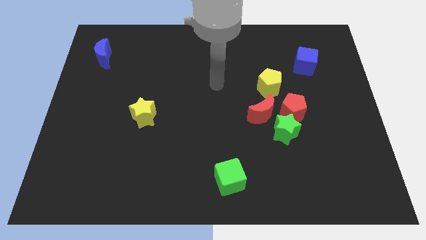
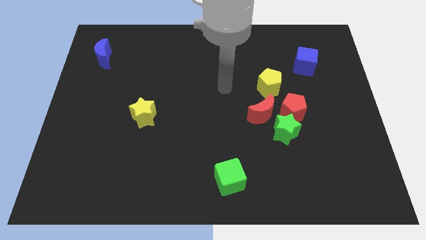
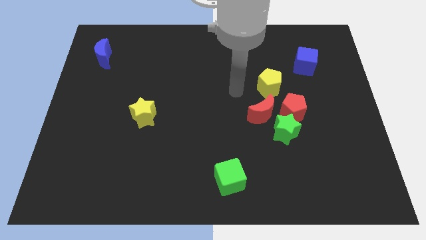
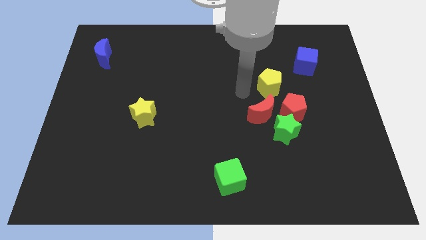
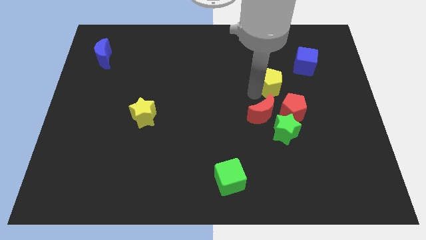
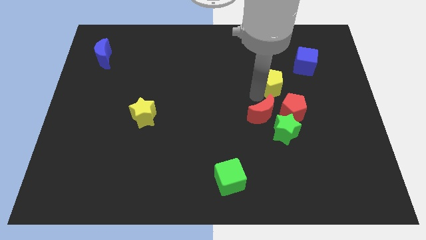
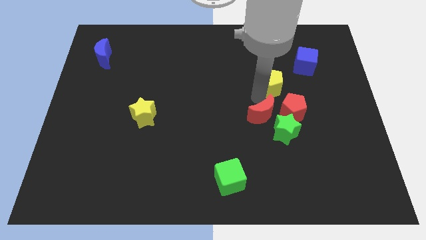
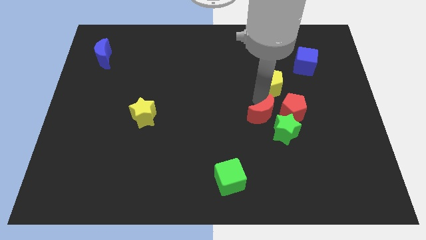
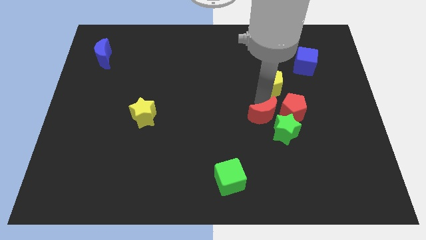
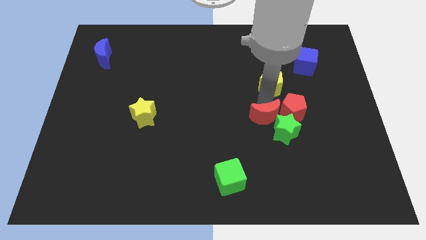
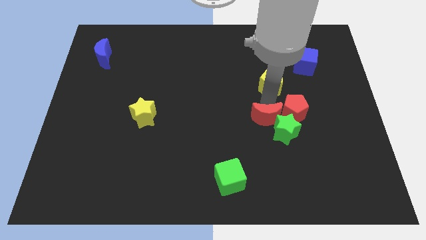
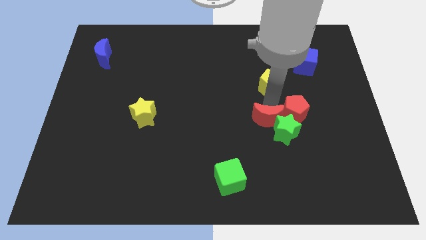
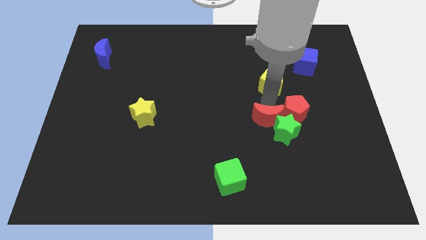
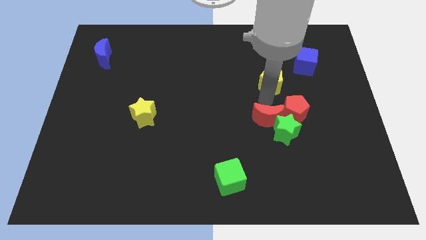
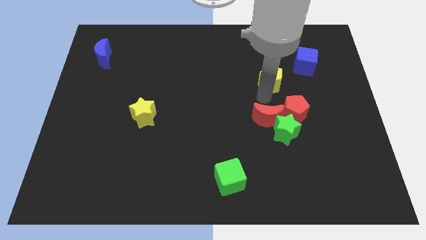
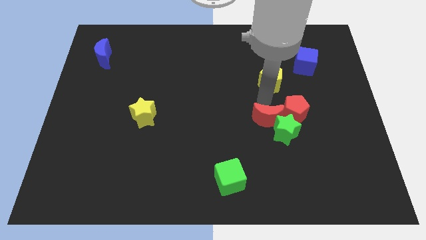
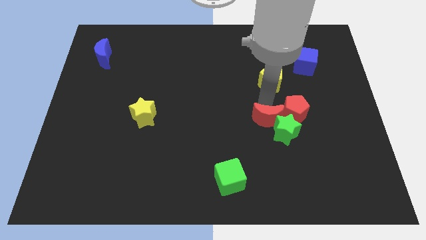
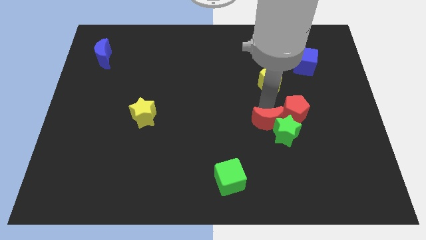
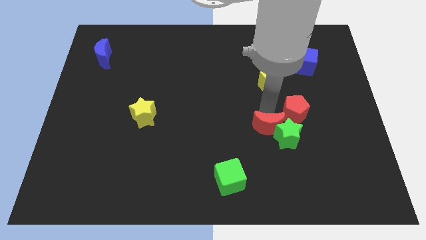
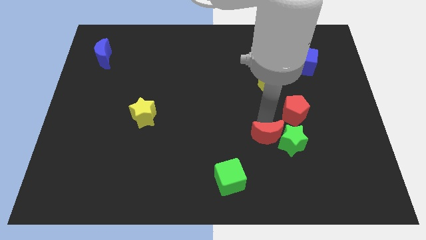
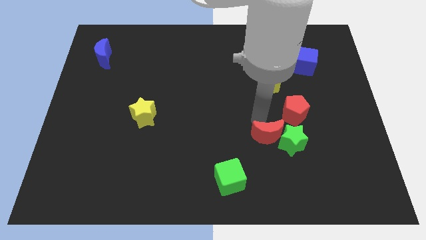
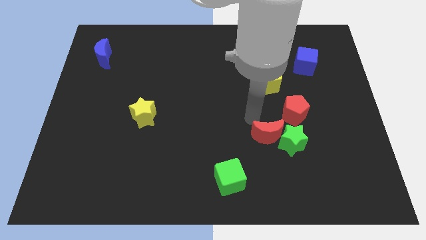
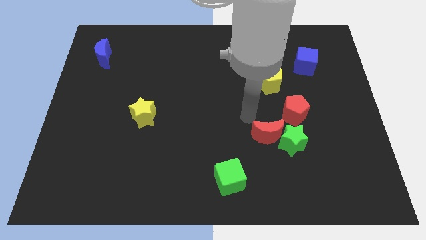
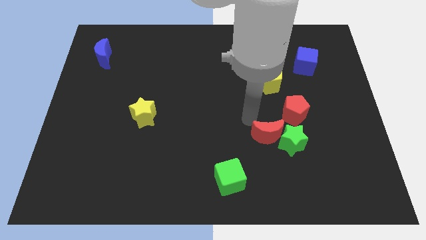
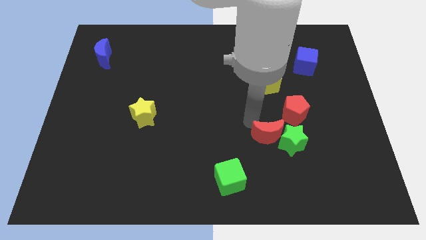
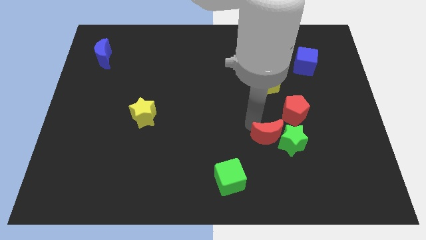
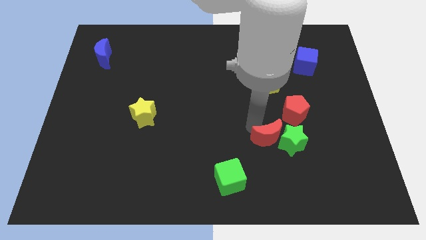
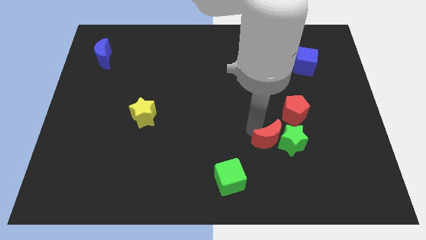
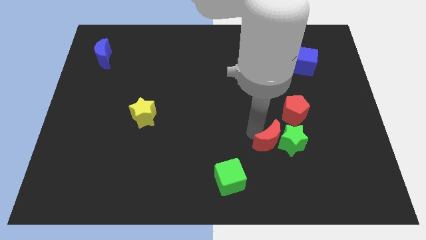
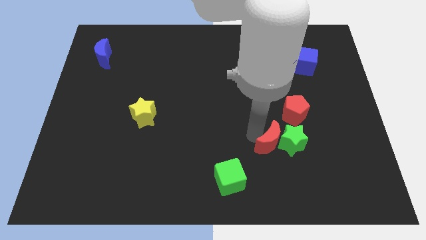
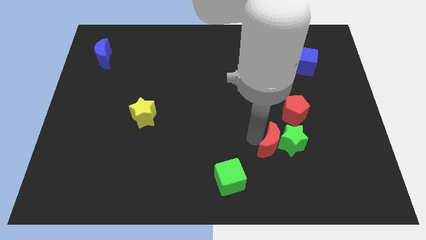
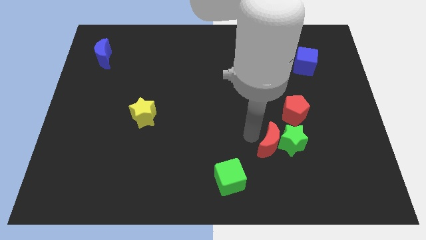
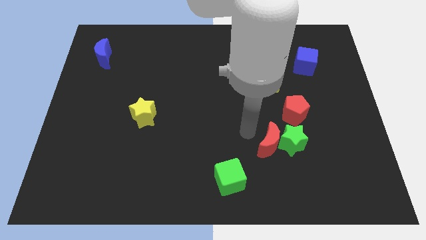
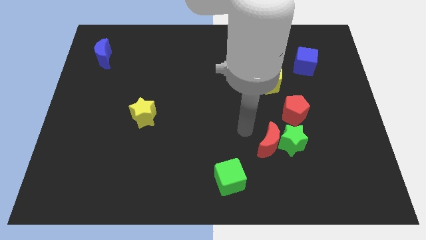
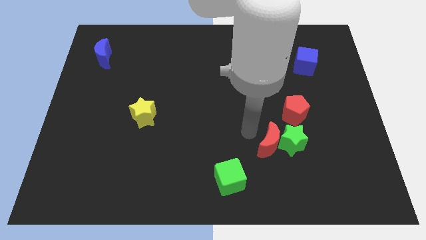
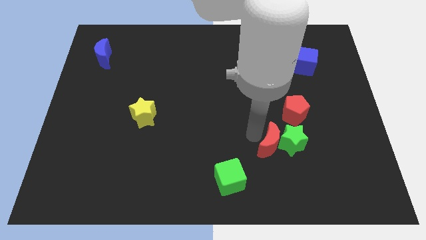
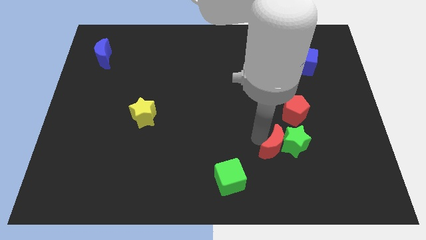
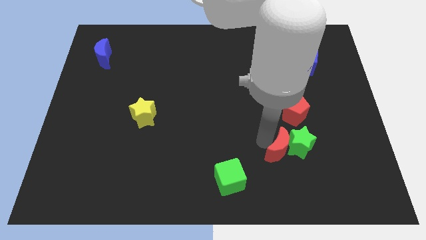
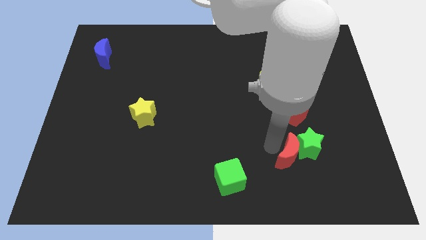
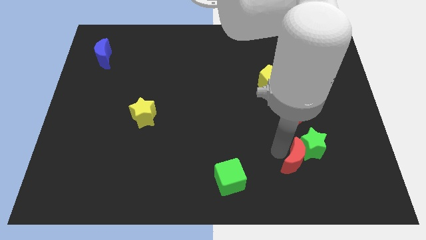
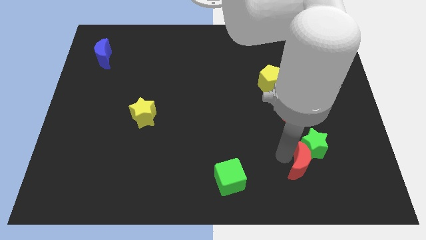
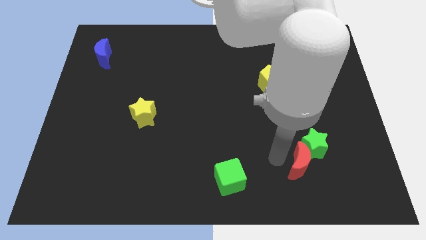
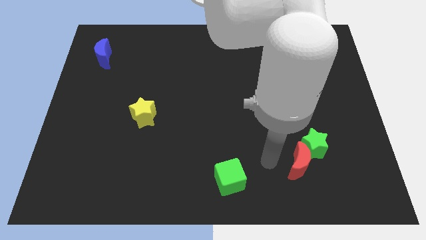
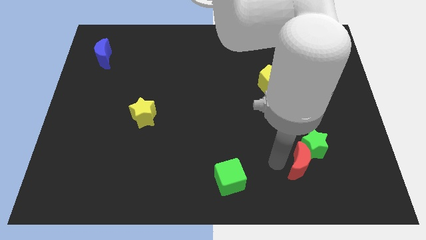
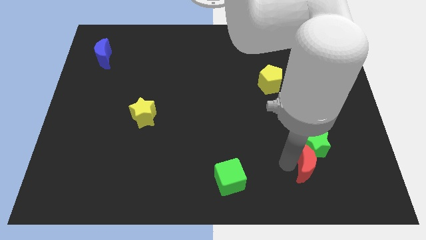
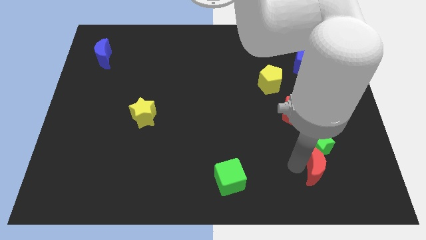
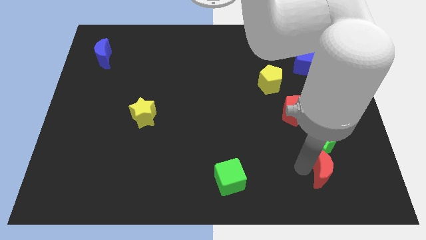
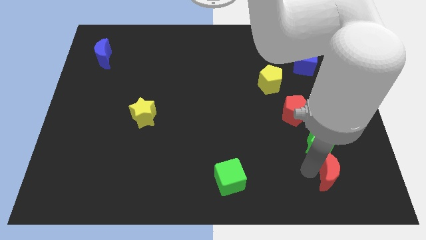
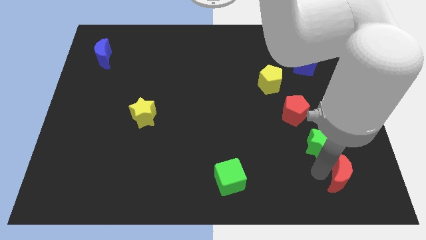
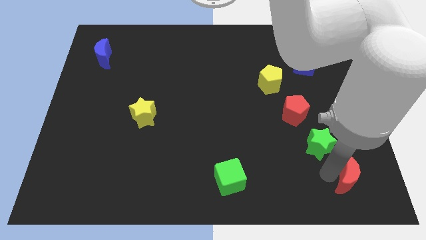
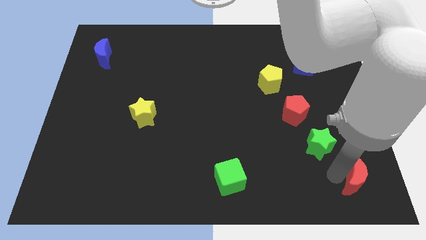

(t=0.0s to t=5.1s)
move the red moon to the bottom right of the board

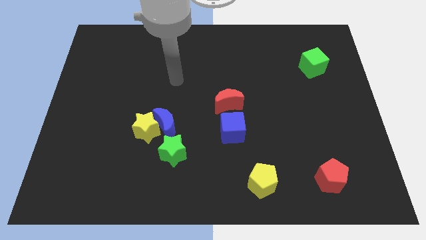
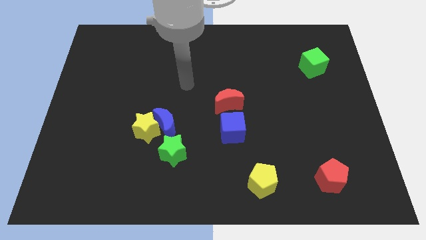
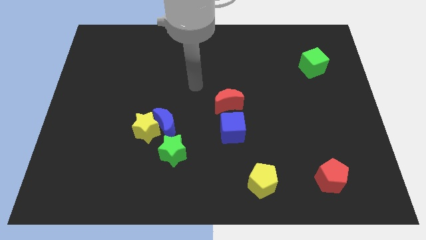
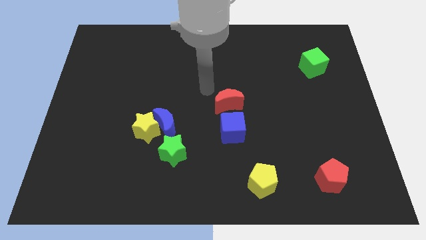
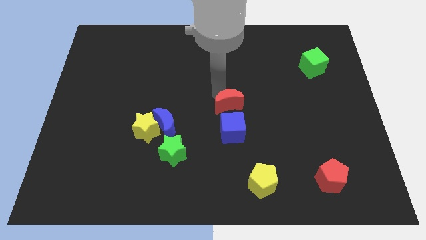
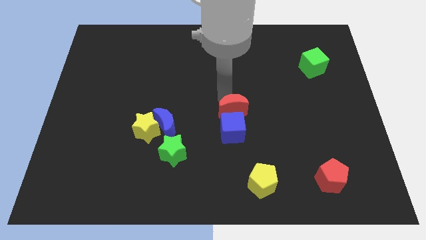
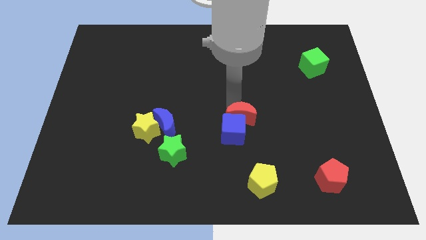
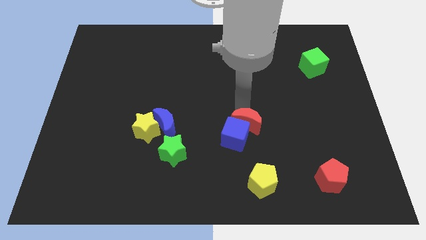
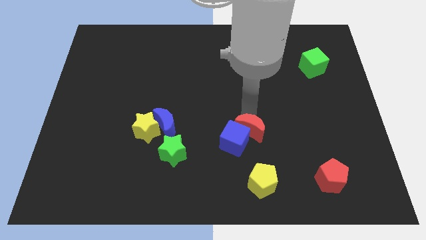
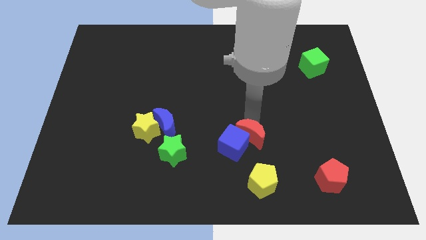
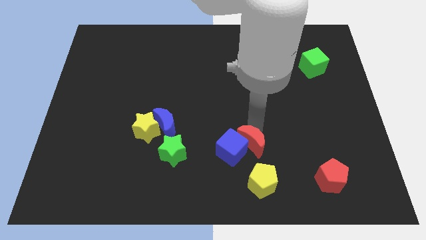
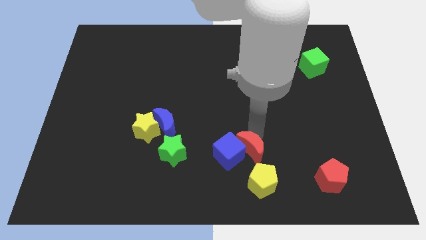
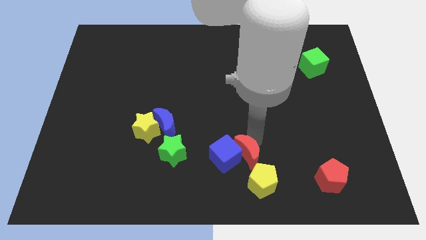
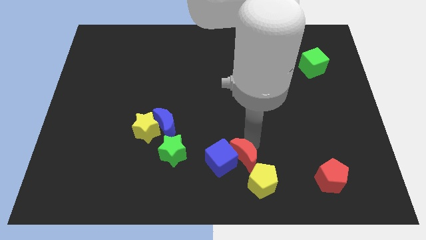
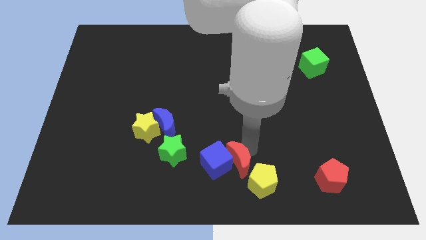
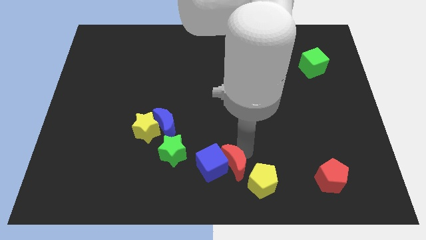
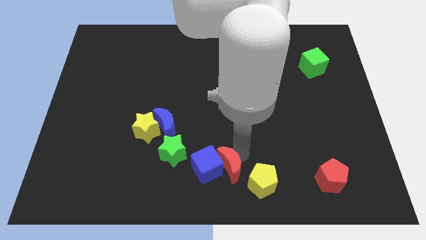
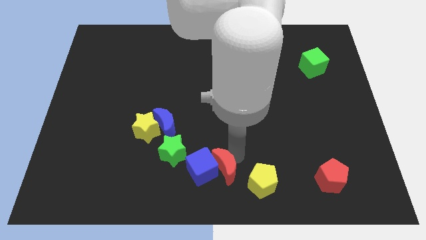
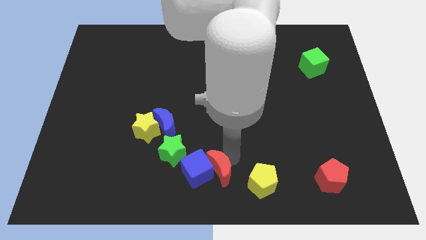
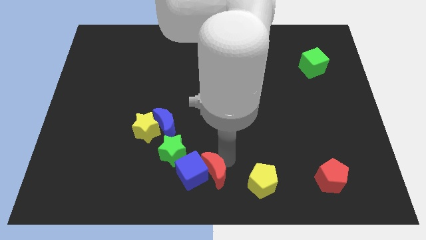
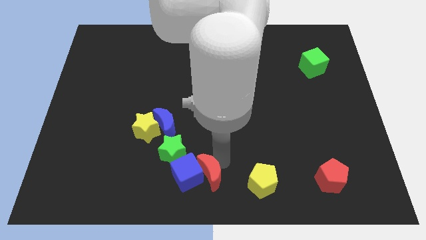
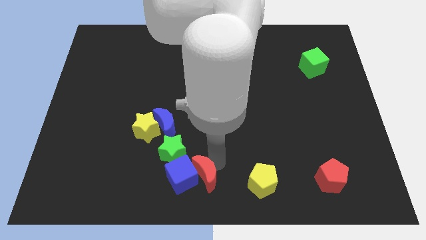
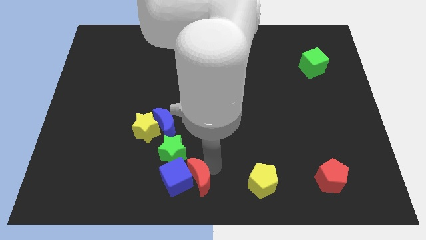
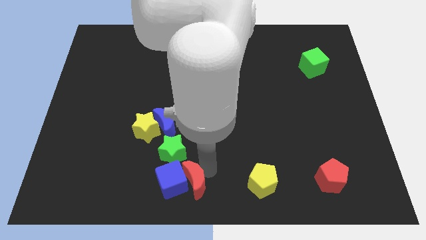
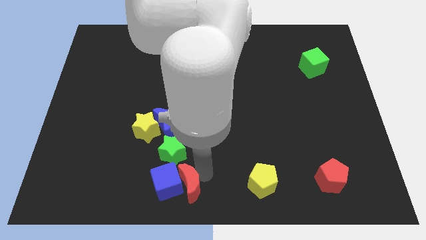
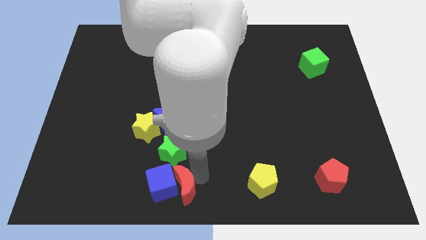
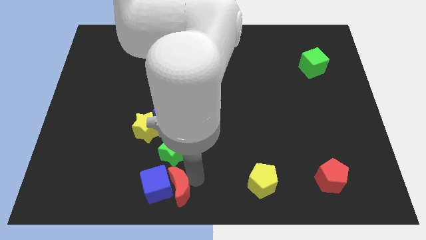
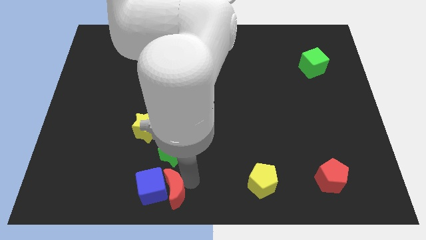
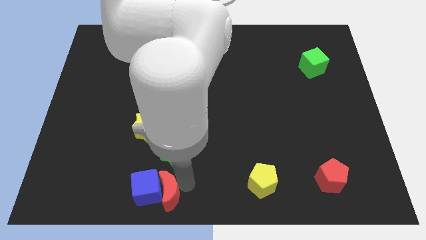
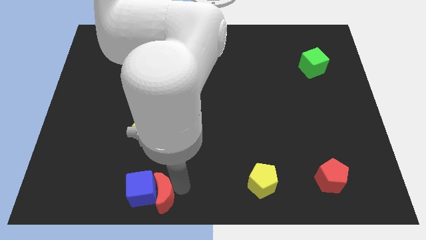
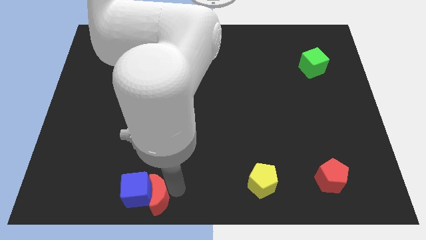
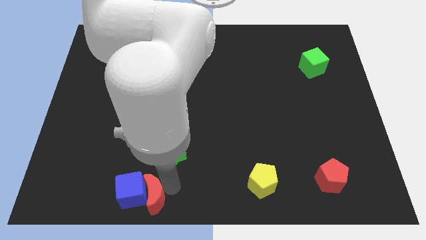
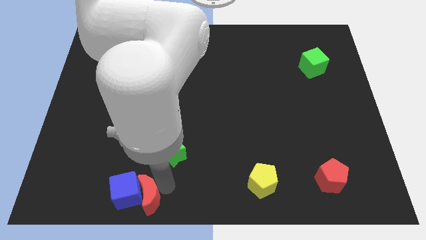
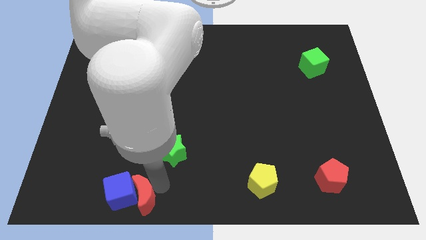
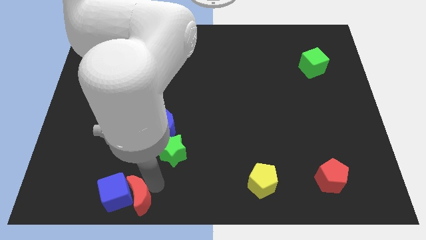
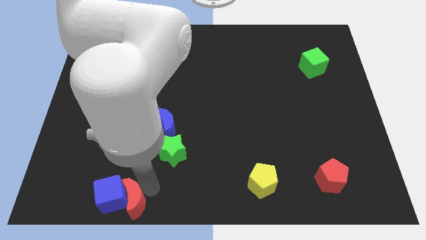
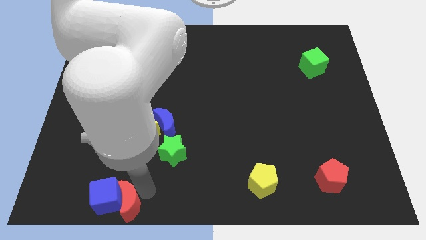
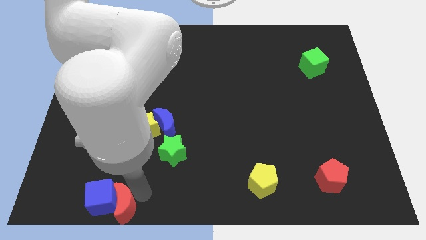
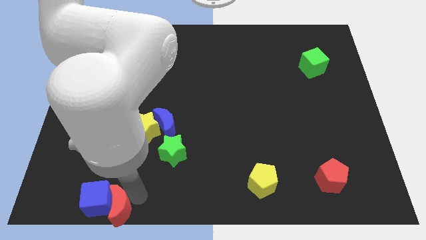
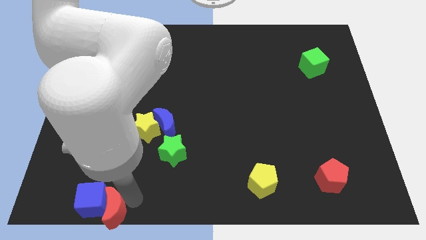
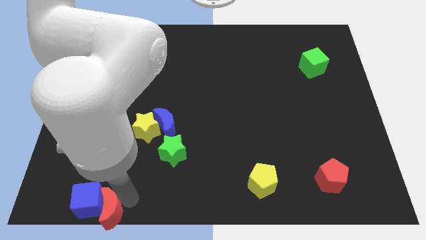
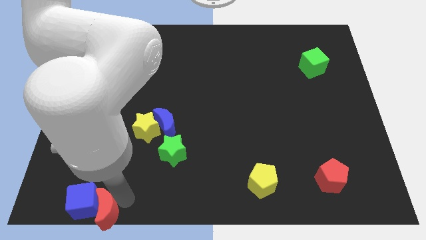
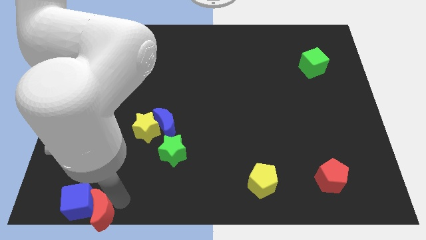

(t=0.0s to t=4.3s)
slide the blue cube to the bottom left of the board
